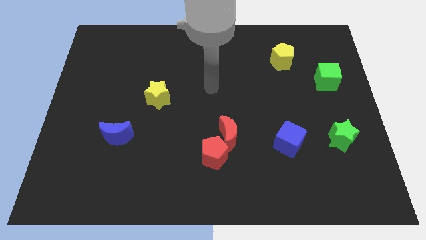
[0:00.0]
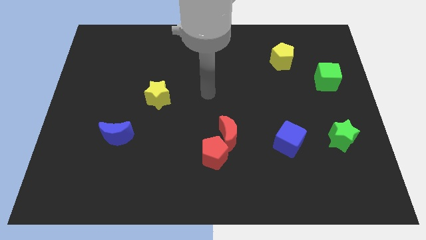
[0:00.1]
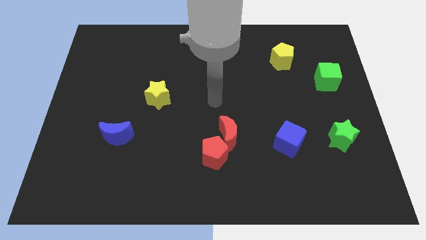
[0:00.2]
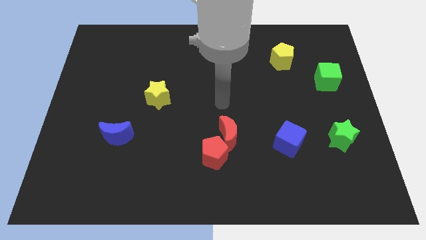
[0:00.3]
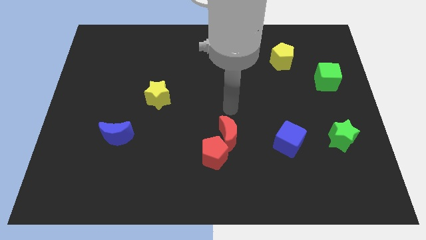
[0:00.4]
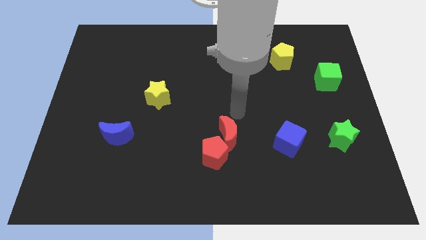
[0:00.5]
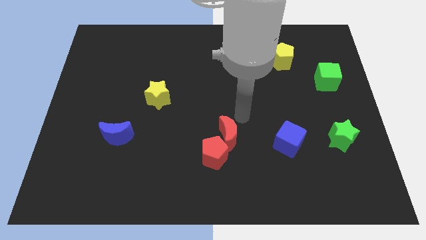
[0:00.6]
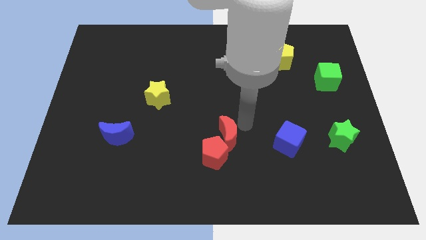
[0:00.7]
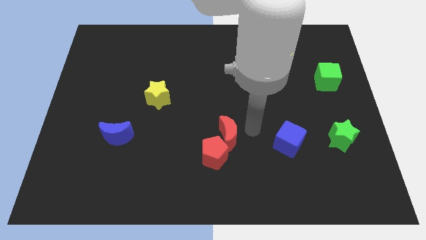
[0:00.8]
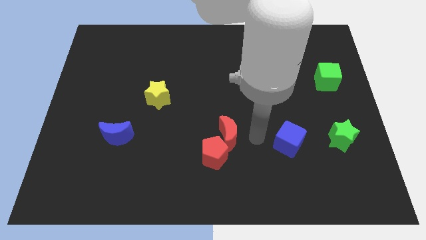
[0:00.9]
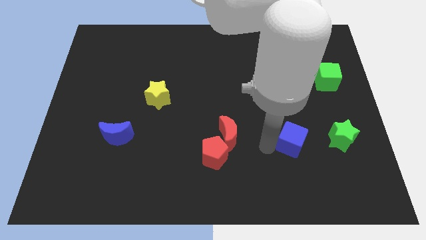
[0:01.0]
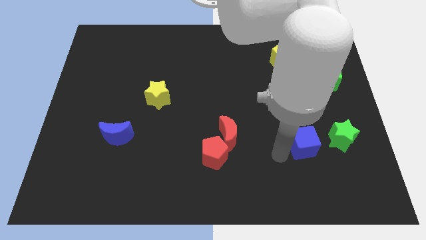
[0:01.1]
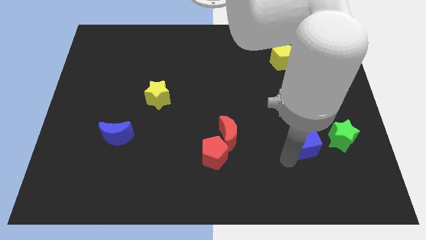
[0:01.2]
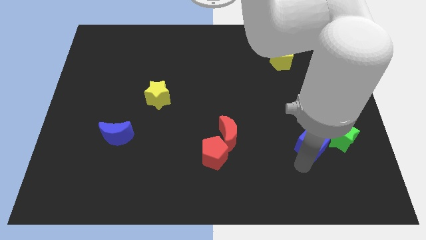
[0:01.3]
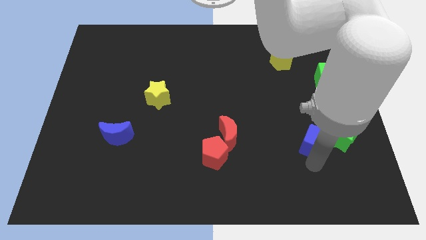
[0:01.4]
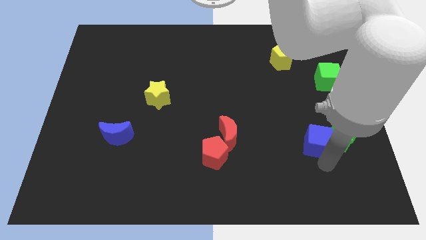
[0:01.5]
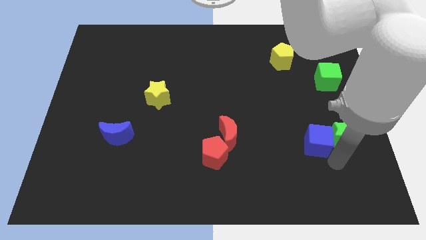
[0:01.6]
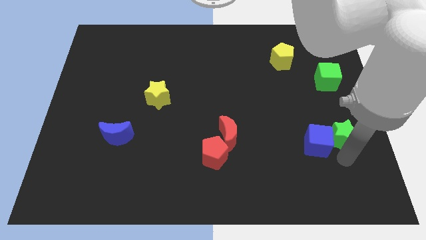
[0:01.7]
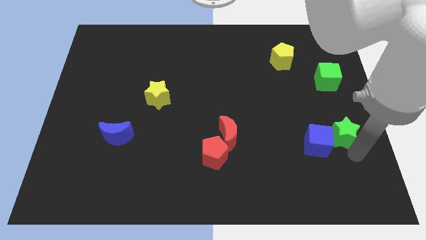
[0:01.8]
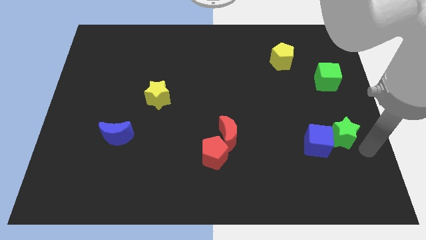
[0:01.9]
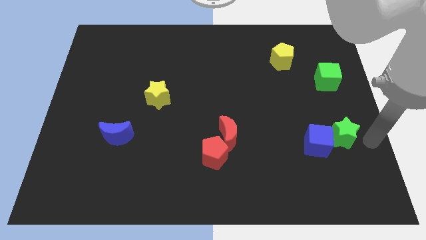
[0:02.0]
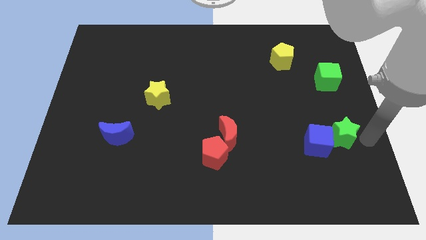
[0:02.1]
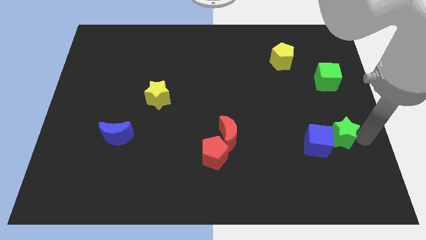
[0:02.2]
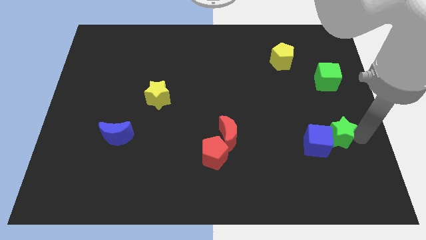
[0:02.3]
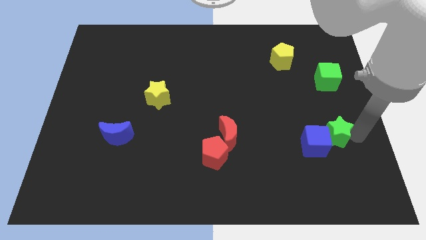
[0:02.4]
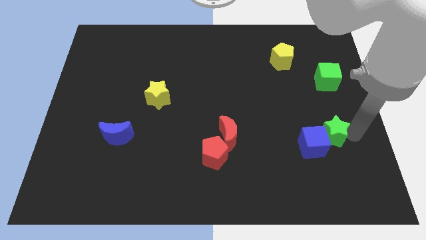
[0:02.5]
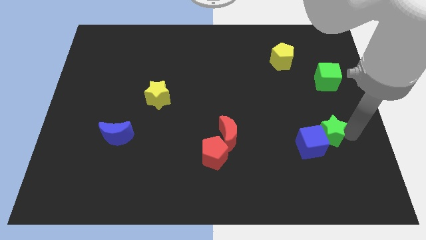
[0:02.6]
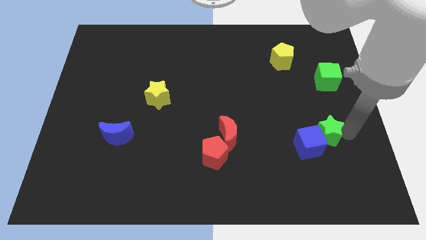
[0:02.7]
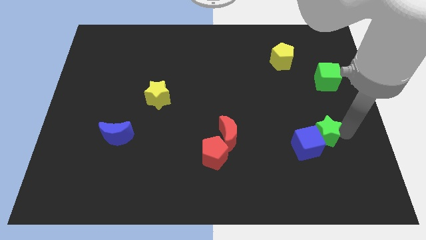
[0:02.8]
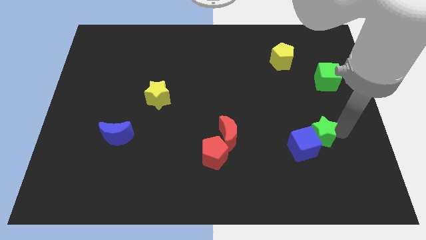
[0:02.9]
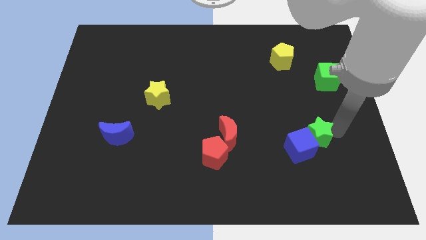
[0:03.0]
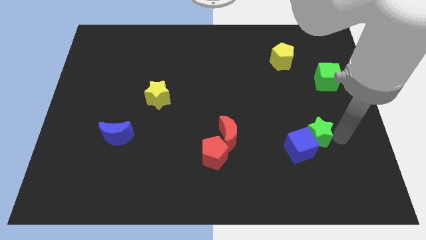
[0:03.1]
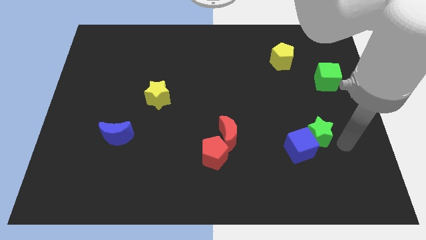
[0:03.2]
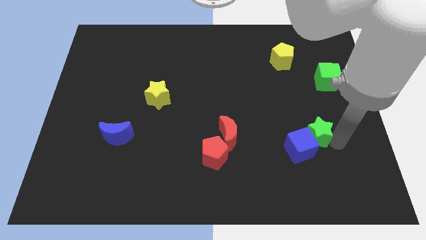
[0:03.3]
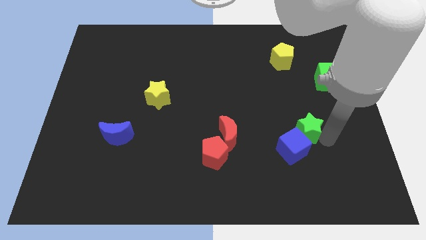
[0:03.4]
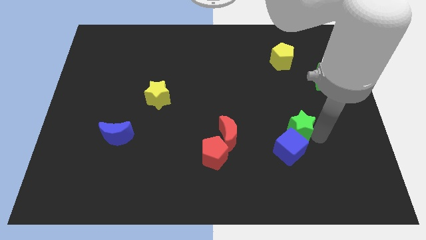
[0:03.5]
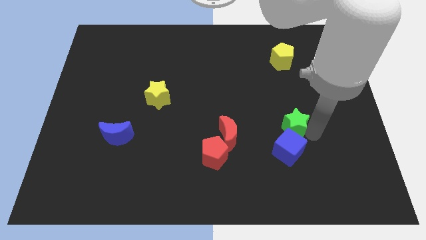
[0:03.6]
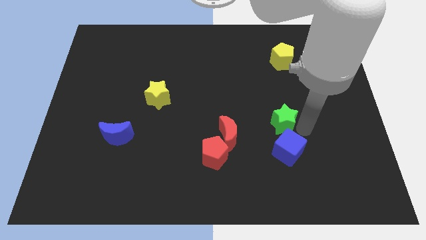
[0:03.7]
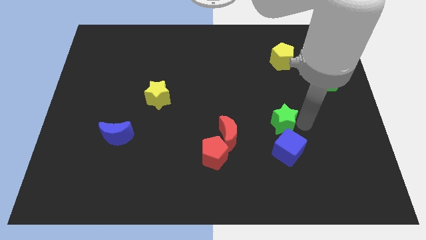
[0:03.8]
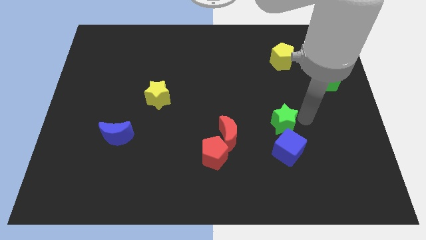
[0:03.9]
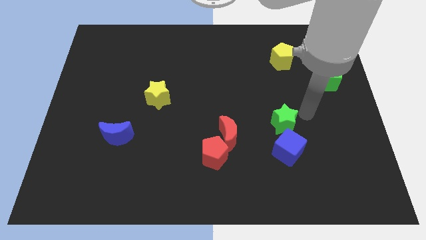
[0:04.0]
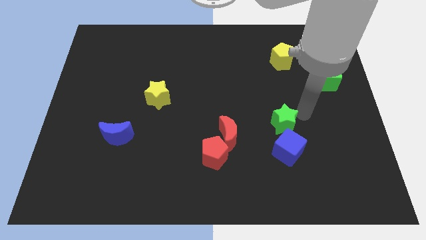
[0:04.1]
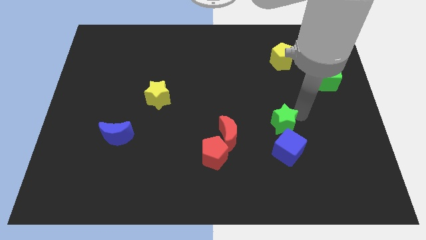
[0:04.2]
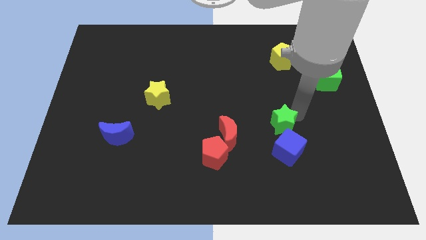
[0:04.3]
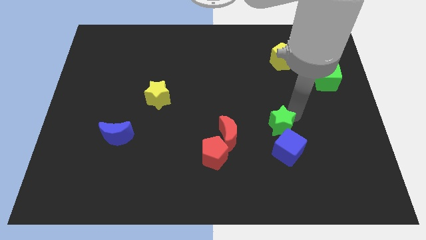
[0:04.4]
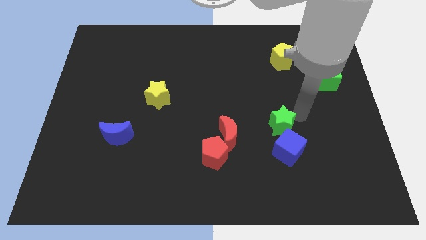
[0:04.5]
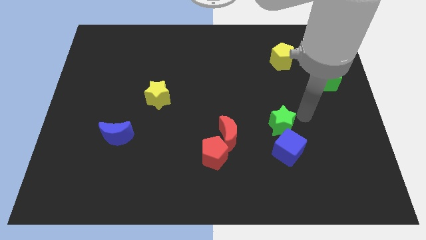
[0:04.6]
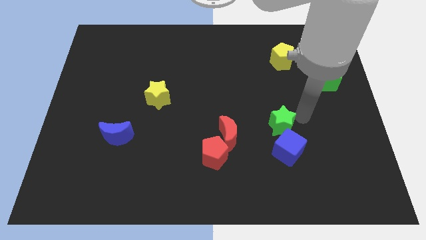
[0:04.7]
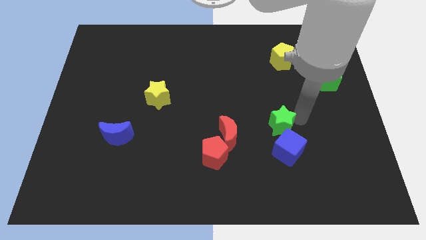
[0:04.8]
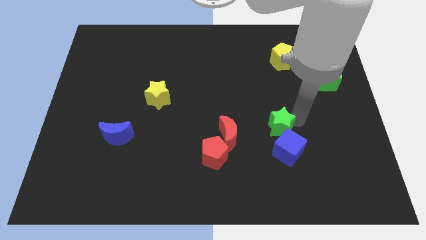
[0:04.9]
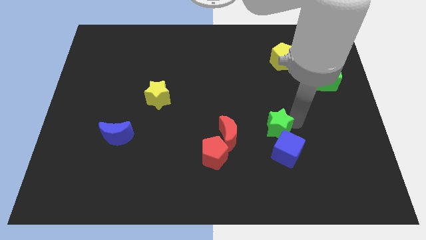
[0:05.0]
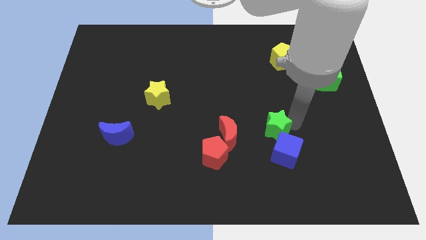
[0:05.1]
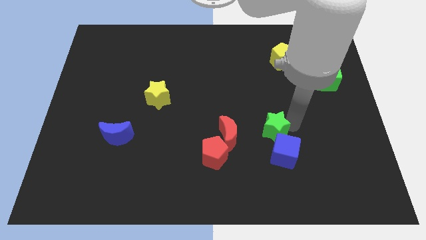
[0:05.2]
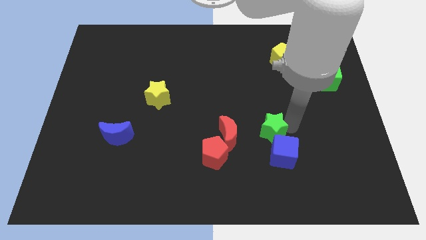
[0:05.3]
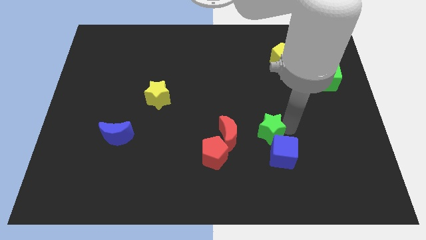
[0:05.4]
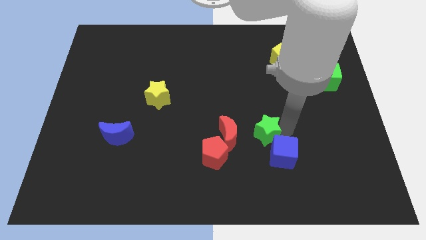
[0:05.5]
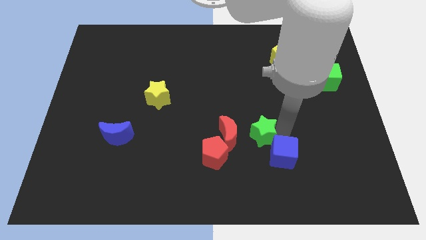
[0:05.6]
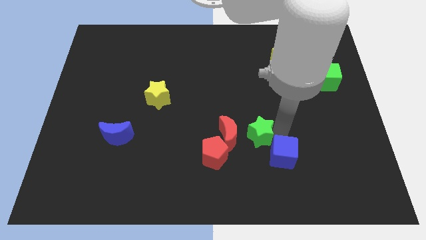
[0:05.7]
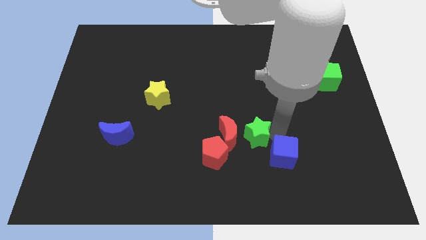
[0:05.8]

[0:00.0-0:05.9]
put the green star towards the red moon

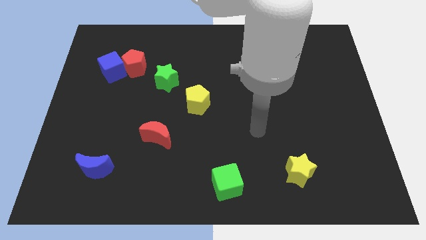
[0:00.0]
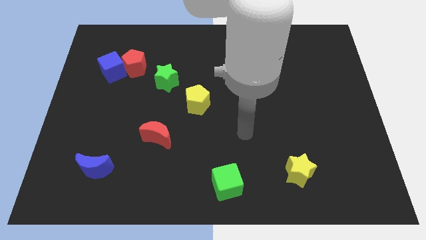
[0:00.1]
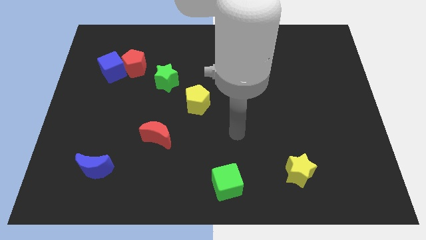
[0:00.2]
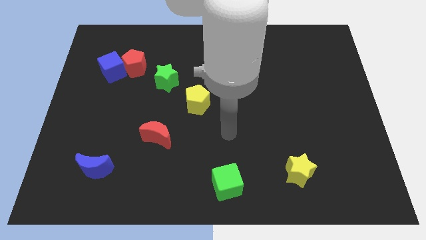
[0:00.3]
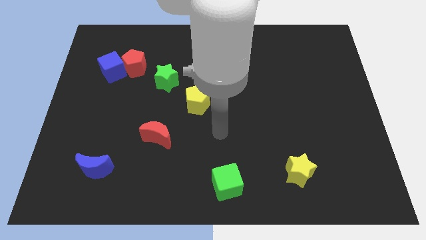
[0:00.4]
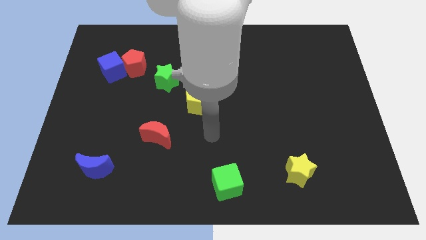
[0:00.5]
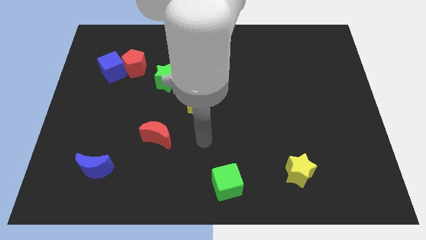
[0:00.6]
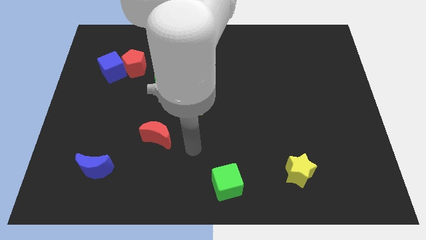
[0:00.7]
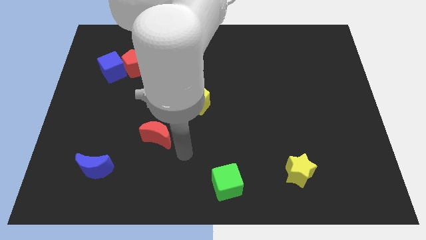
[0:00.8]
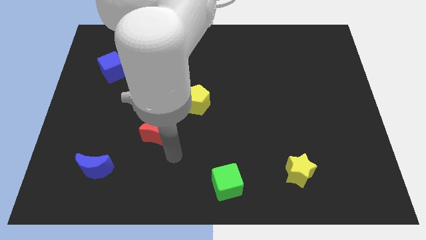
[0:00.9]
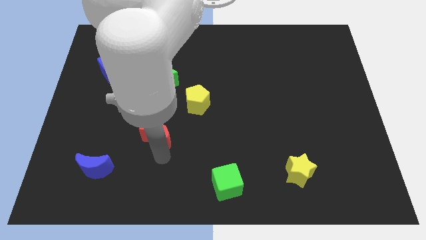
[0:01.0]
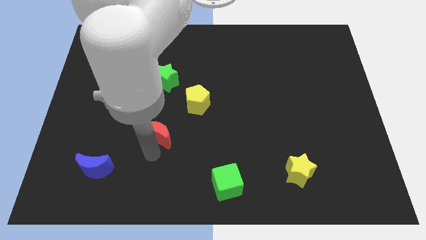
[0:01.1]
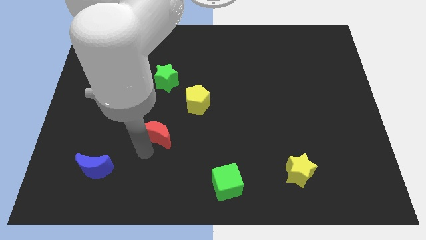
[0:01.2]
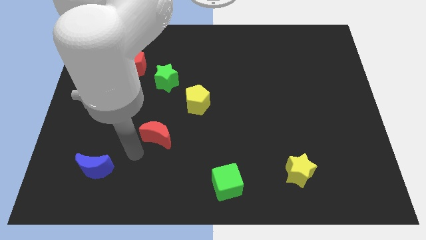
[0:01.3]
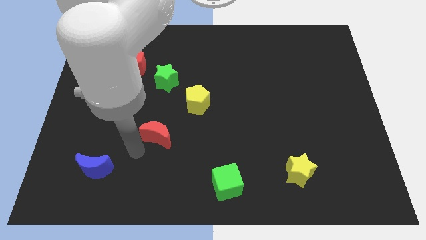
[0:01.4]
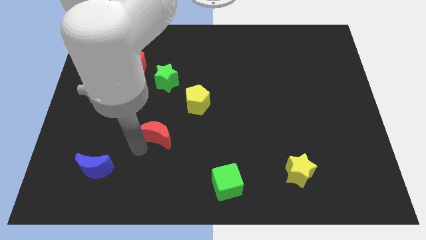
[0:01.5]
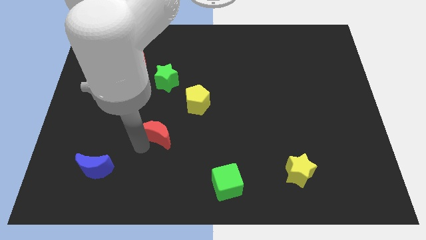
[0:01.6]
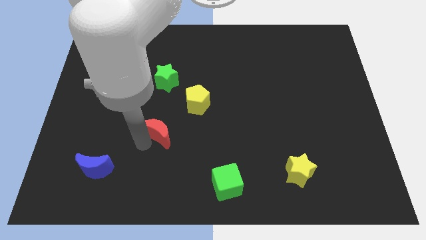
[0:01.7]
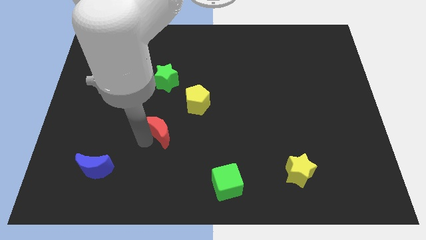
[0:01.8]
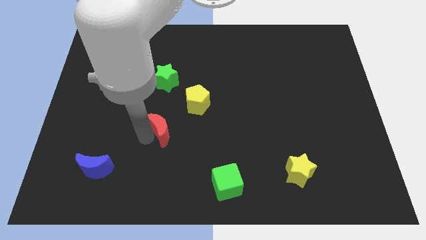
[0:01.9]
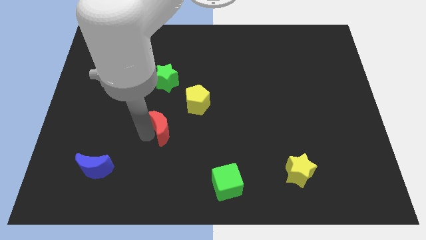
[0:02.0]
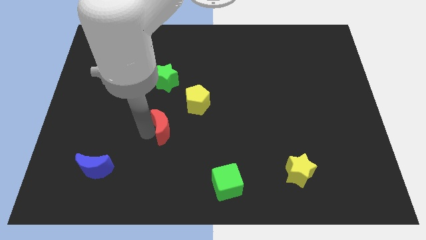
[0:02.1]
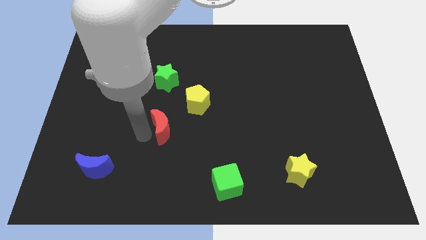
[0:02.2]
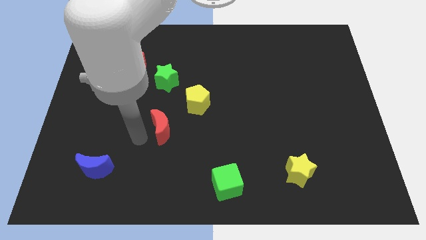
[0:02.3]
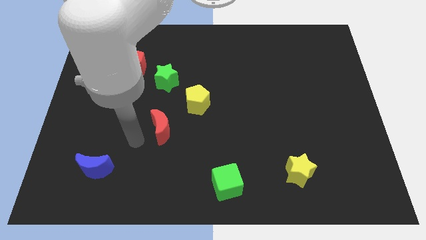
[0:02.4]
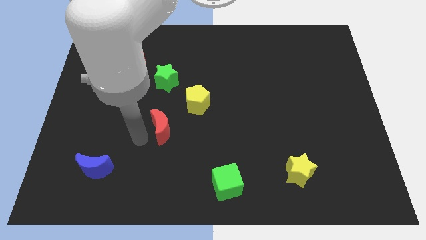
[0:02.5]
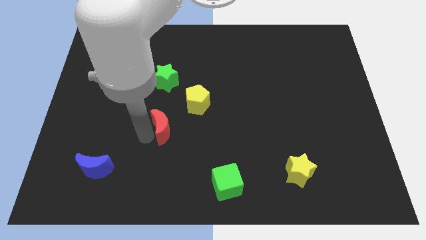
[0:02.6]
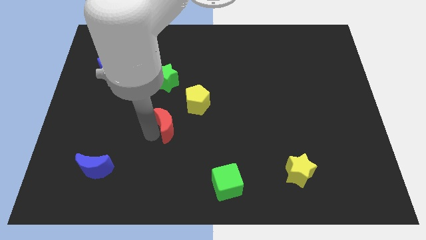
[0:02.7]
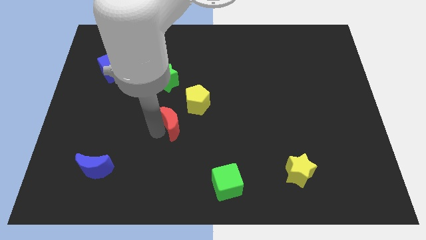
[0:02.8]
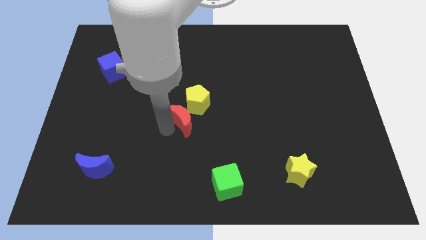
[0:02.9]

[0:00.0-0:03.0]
push the red moon next to the yellow pentagon
